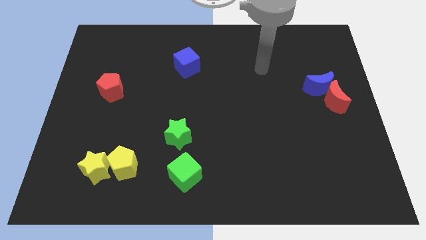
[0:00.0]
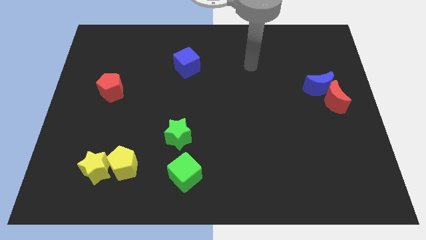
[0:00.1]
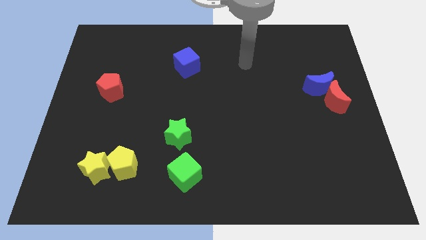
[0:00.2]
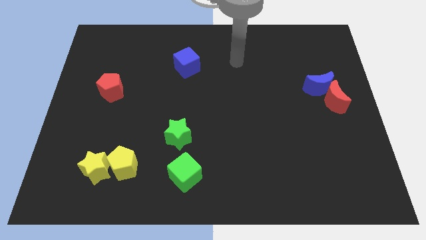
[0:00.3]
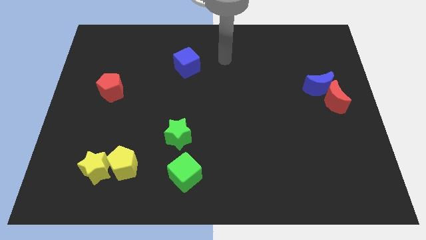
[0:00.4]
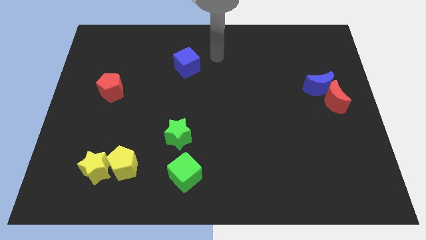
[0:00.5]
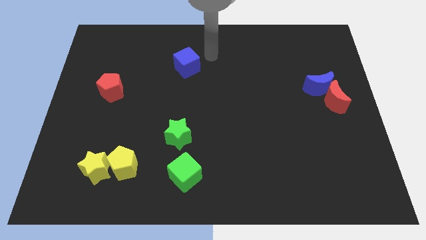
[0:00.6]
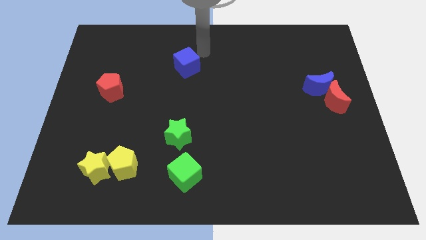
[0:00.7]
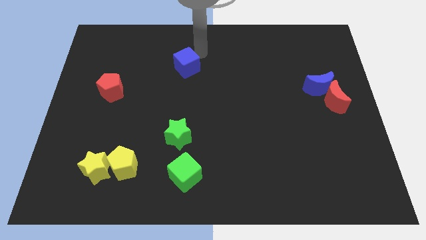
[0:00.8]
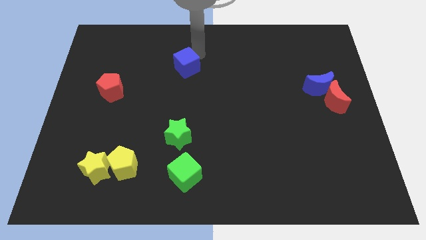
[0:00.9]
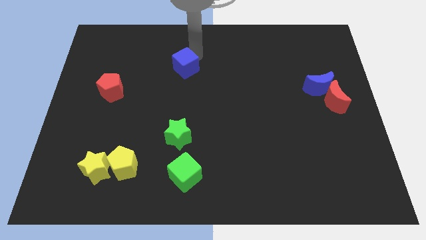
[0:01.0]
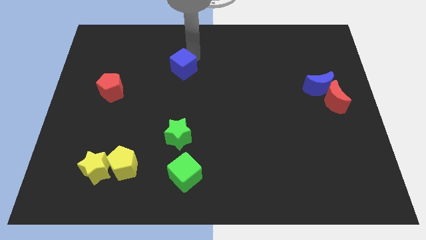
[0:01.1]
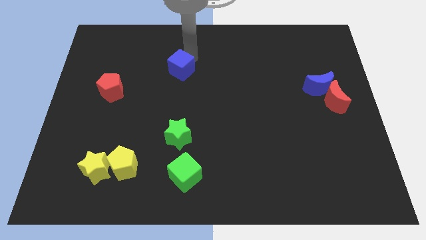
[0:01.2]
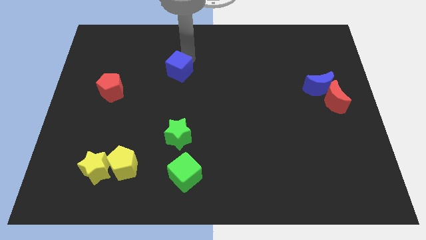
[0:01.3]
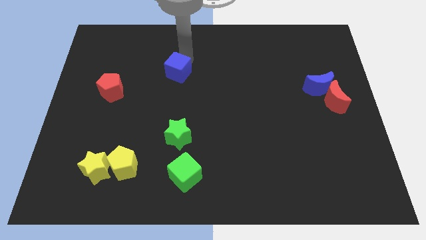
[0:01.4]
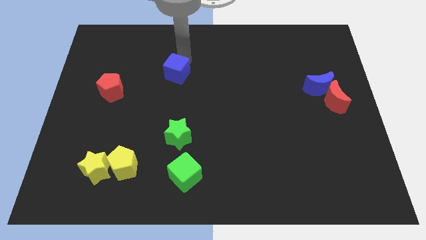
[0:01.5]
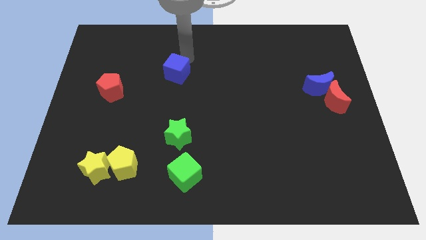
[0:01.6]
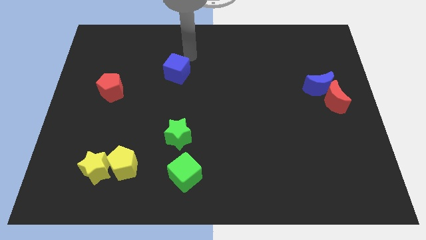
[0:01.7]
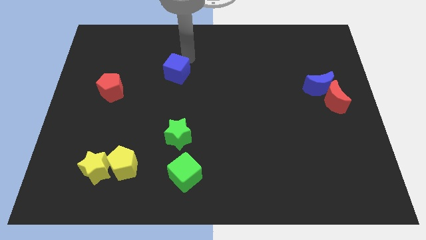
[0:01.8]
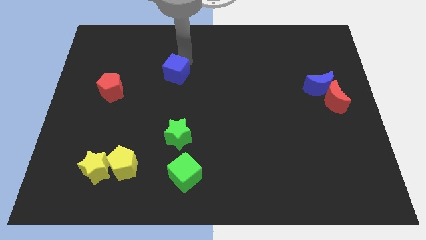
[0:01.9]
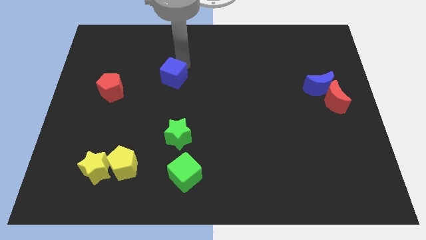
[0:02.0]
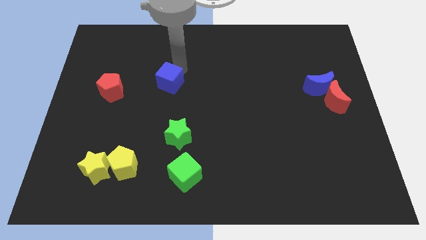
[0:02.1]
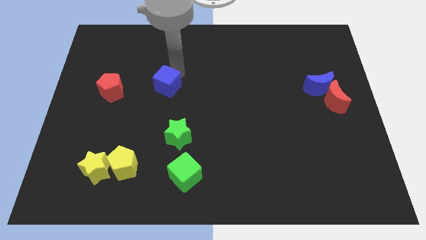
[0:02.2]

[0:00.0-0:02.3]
slightly push the blue cube downwards and to the left

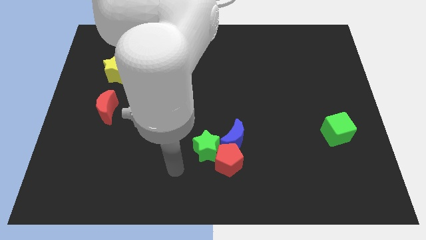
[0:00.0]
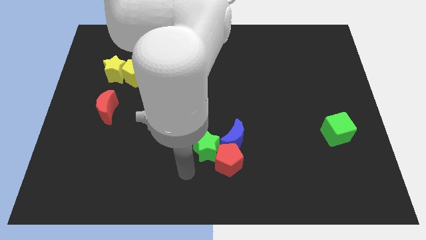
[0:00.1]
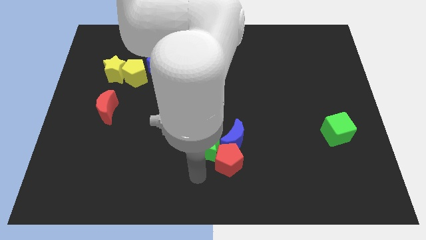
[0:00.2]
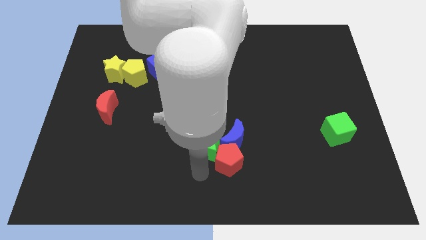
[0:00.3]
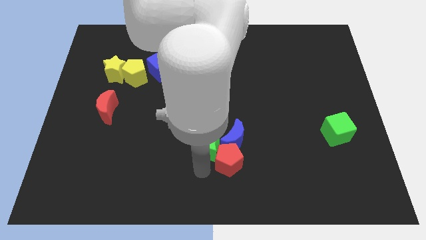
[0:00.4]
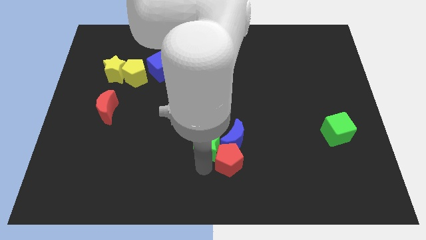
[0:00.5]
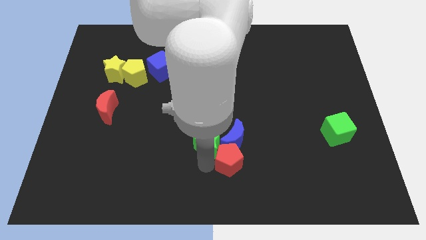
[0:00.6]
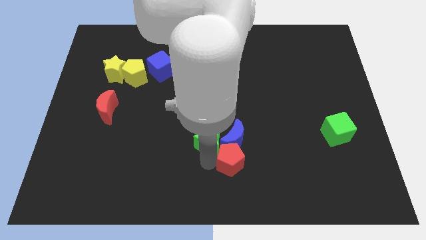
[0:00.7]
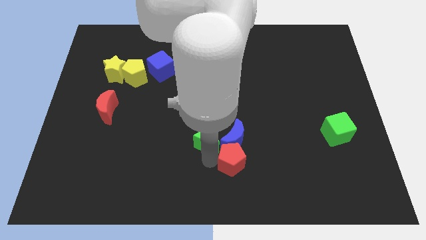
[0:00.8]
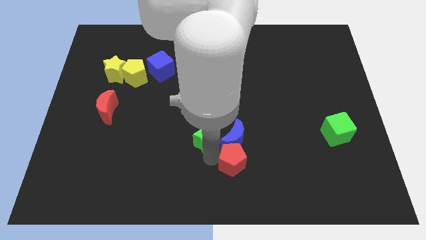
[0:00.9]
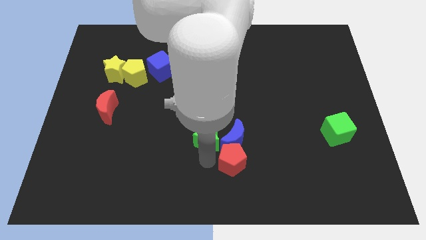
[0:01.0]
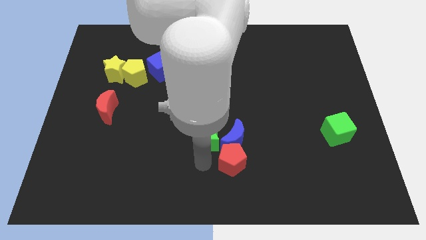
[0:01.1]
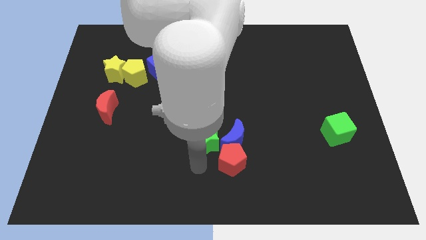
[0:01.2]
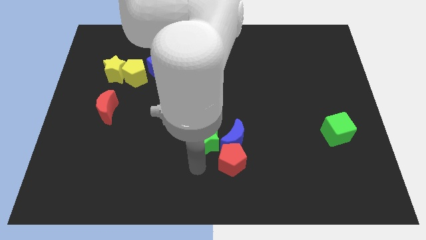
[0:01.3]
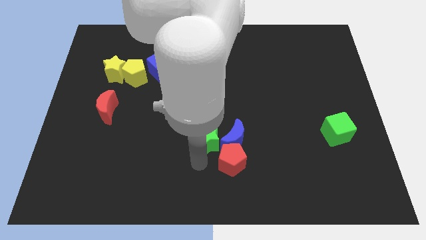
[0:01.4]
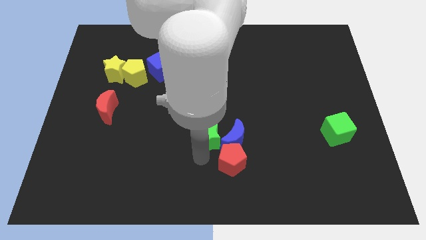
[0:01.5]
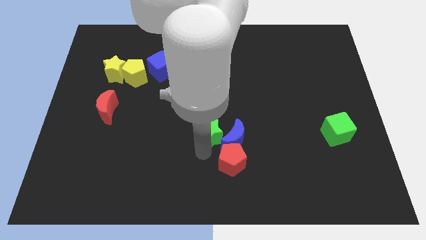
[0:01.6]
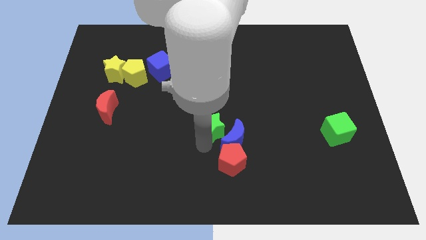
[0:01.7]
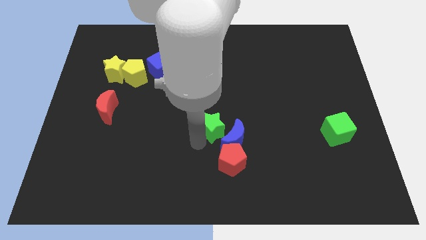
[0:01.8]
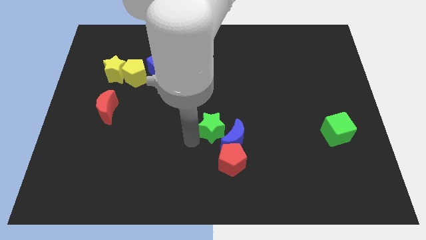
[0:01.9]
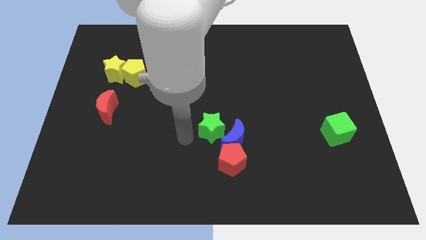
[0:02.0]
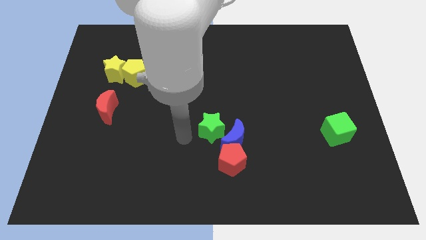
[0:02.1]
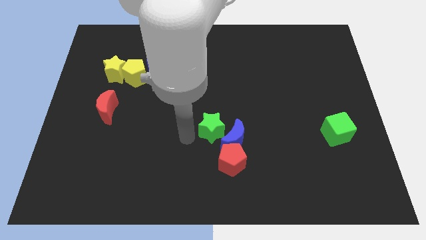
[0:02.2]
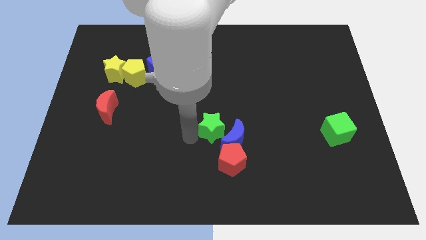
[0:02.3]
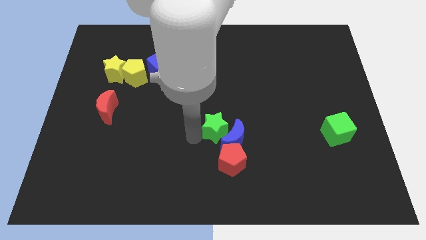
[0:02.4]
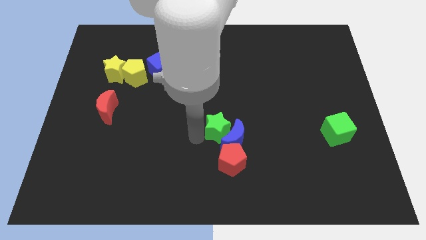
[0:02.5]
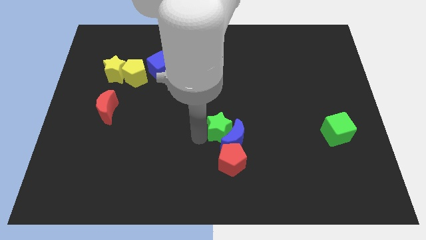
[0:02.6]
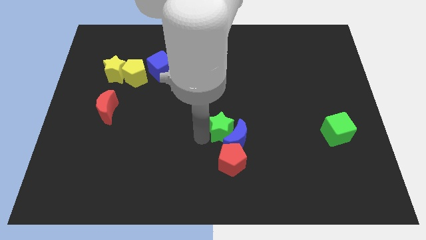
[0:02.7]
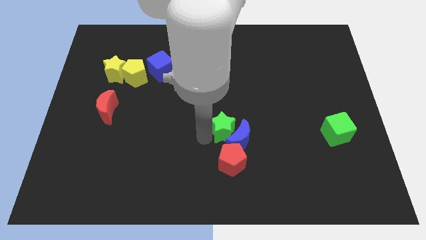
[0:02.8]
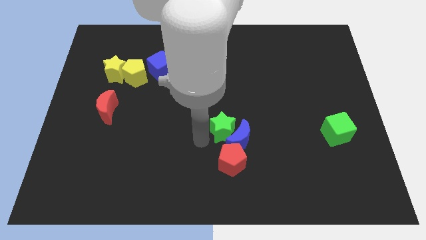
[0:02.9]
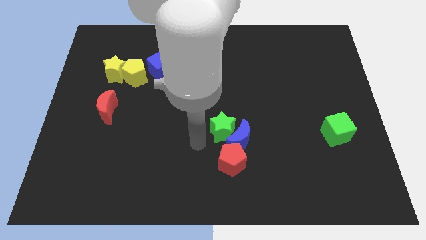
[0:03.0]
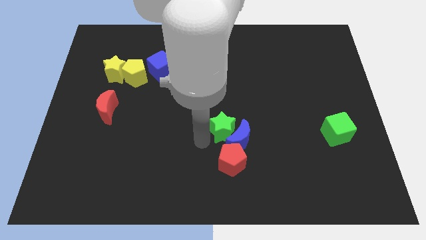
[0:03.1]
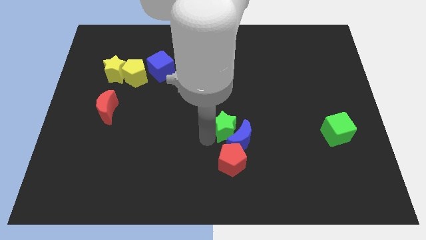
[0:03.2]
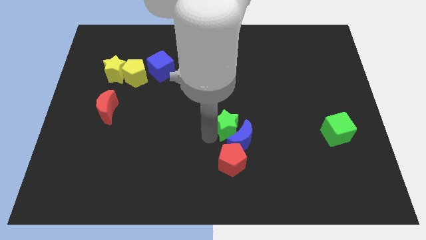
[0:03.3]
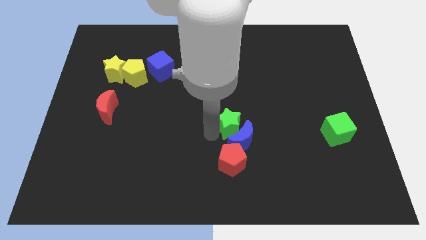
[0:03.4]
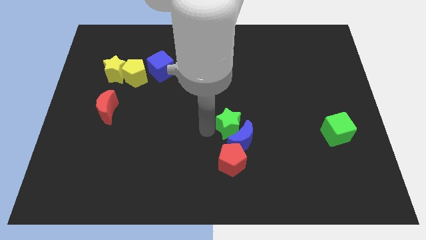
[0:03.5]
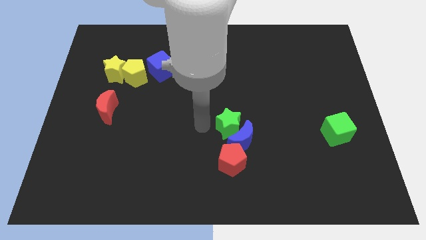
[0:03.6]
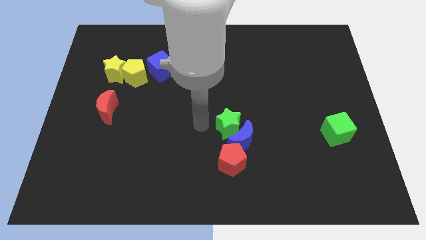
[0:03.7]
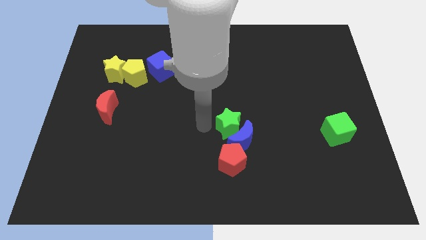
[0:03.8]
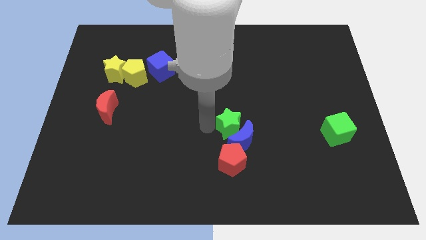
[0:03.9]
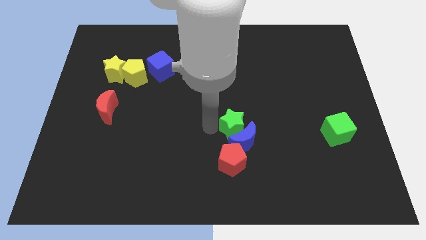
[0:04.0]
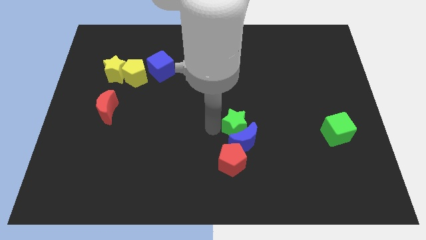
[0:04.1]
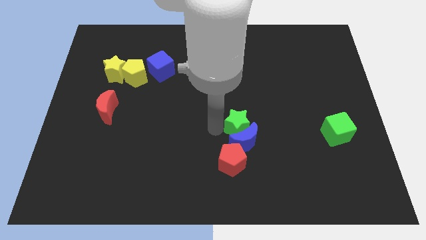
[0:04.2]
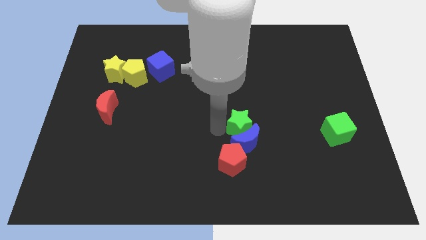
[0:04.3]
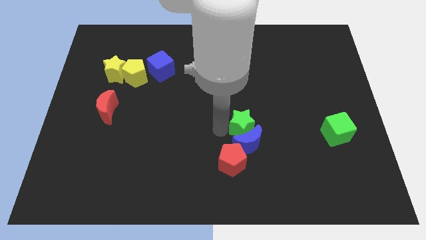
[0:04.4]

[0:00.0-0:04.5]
move the green star right a little bit

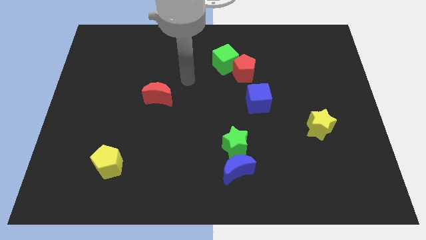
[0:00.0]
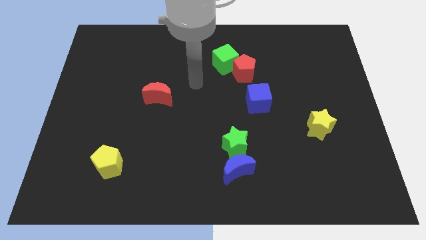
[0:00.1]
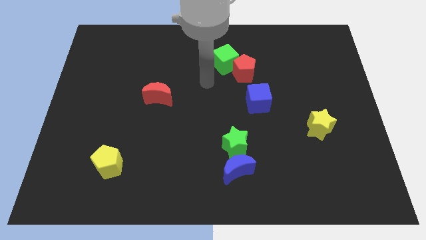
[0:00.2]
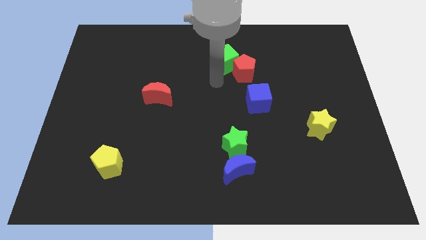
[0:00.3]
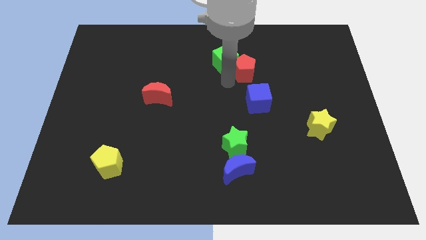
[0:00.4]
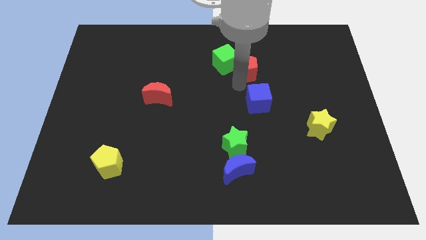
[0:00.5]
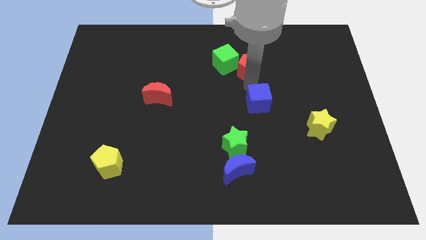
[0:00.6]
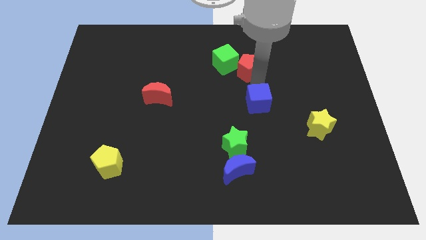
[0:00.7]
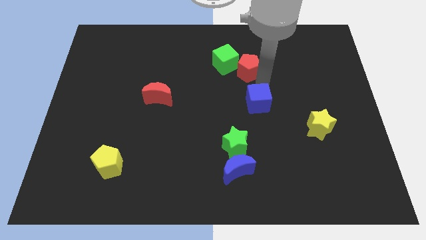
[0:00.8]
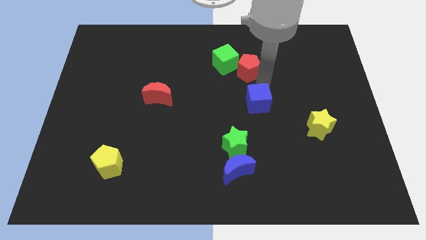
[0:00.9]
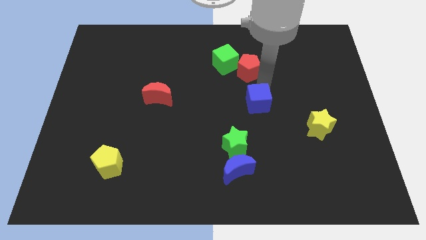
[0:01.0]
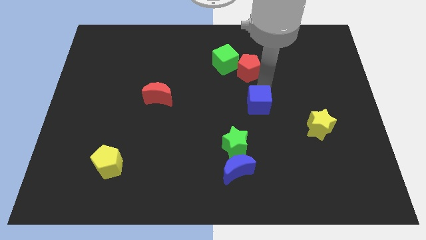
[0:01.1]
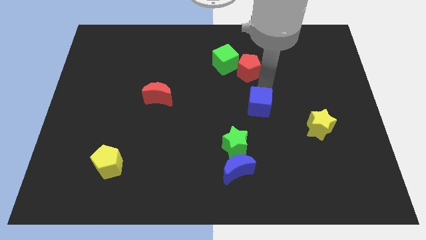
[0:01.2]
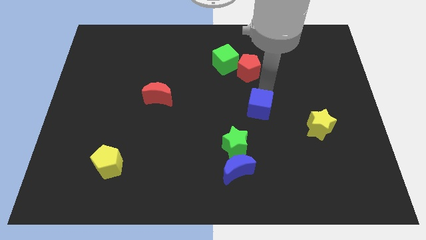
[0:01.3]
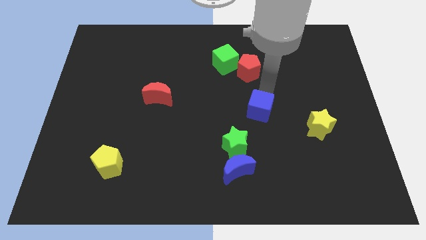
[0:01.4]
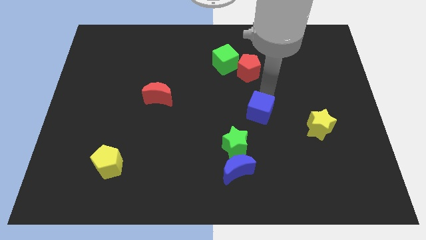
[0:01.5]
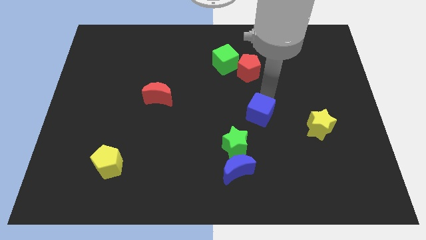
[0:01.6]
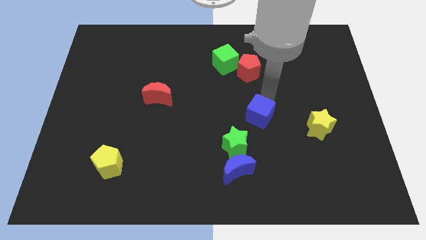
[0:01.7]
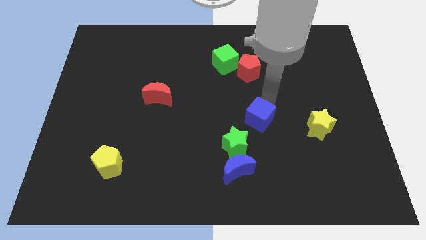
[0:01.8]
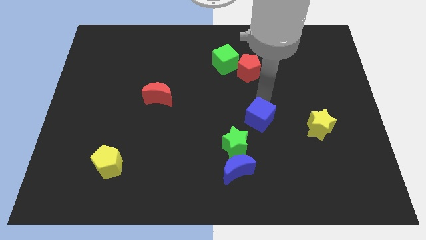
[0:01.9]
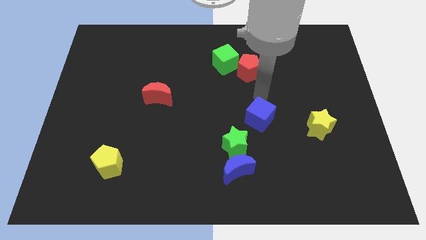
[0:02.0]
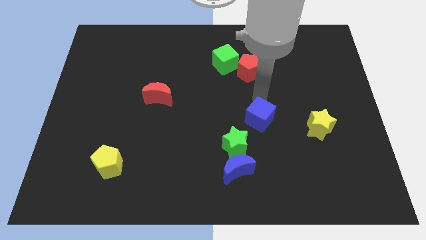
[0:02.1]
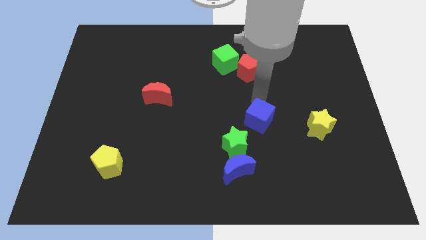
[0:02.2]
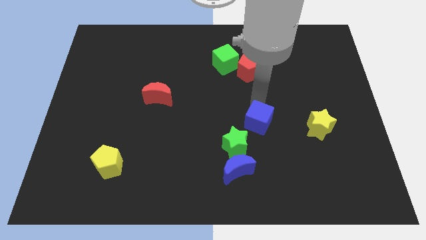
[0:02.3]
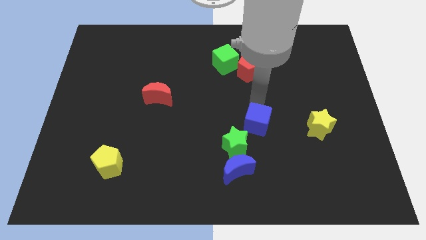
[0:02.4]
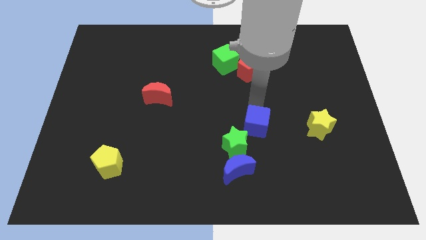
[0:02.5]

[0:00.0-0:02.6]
slightly slide the blue cube downwards
